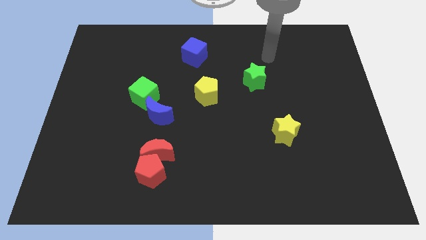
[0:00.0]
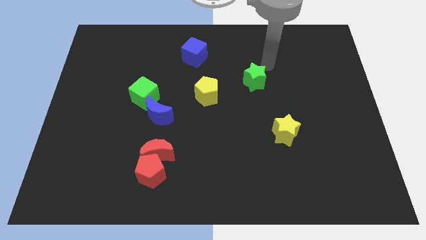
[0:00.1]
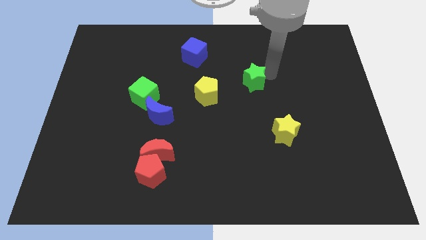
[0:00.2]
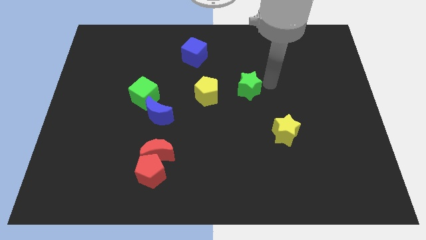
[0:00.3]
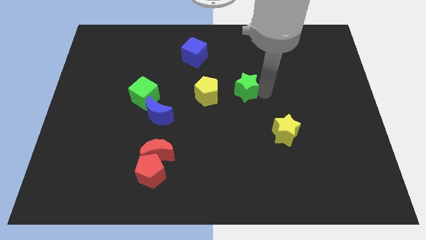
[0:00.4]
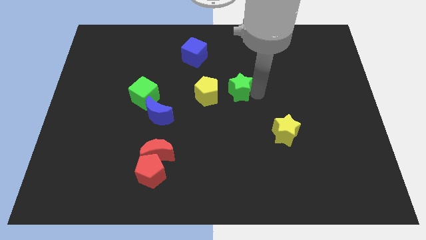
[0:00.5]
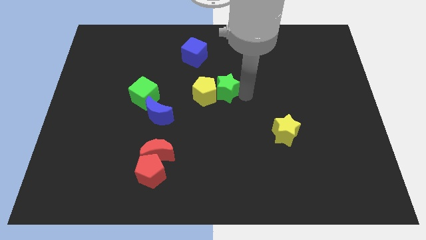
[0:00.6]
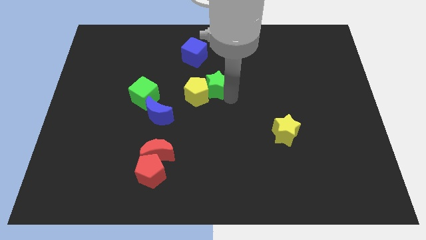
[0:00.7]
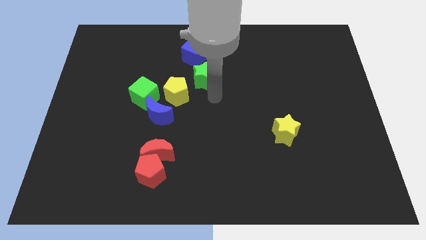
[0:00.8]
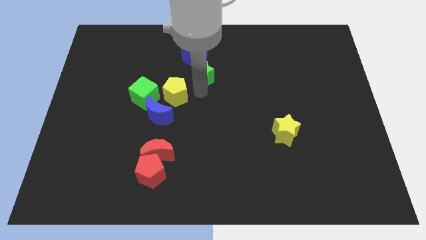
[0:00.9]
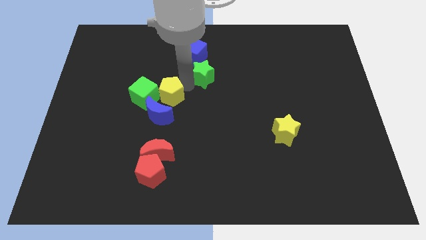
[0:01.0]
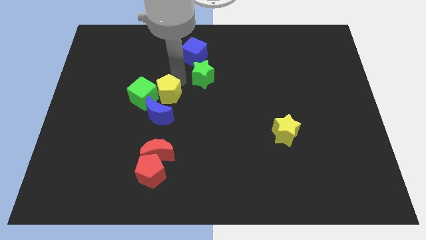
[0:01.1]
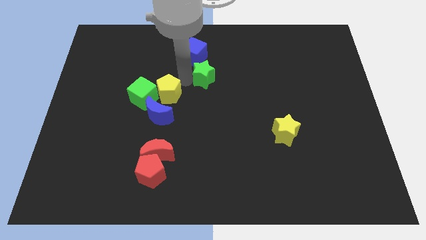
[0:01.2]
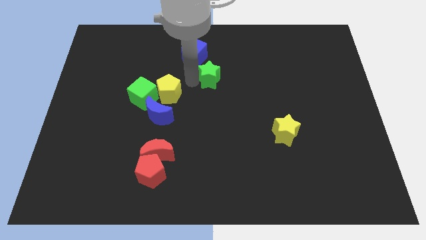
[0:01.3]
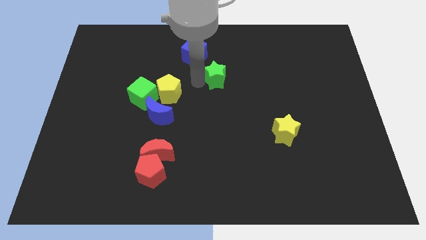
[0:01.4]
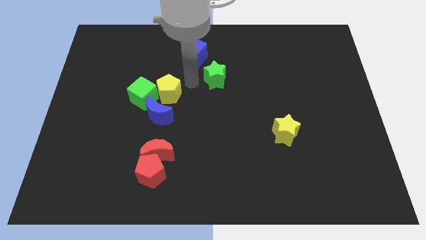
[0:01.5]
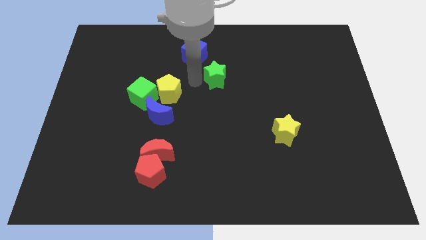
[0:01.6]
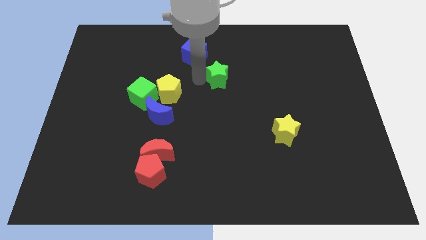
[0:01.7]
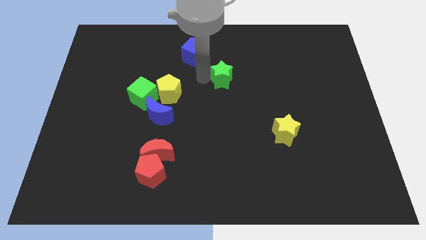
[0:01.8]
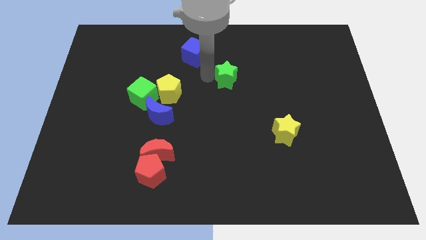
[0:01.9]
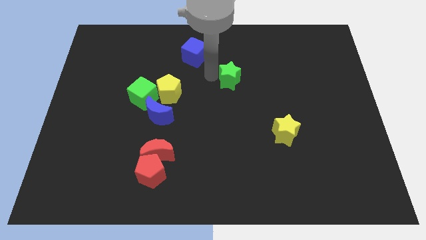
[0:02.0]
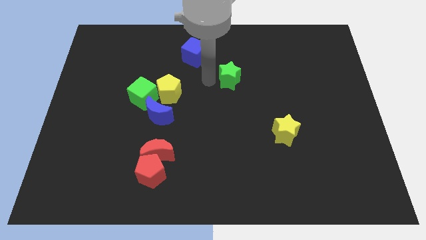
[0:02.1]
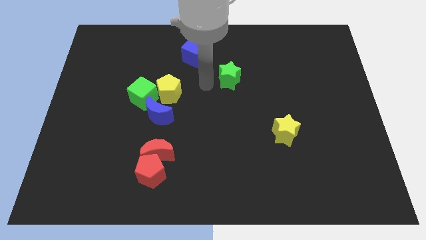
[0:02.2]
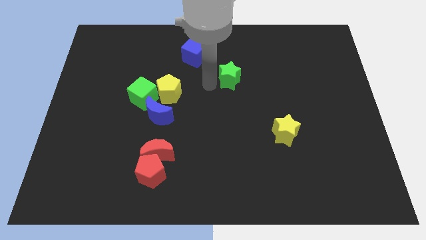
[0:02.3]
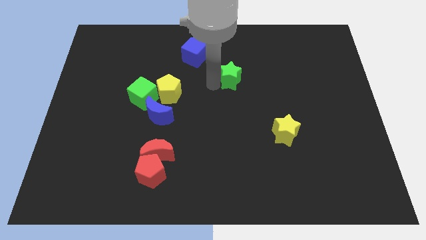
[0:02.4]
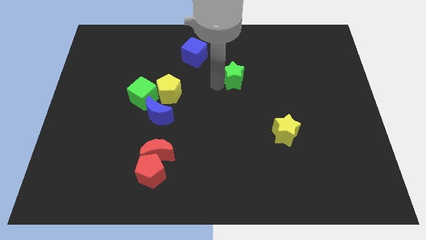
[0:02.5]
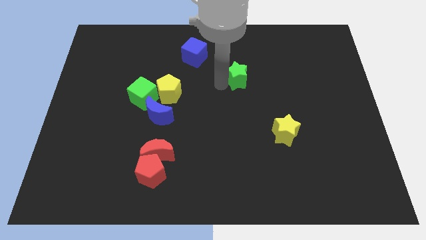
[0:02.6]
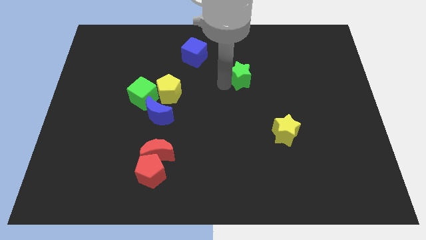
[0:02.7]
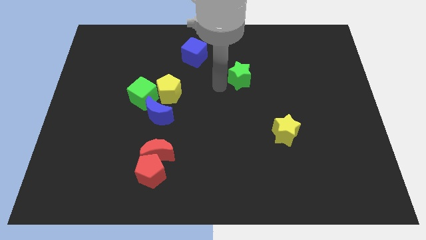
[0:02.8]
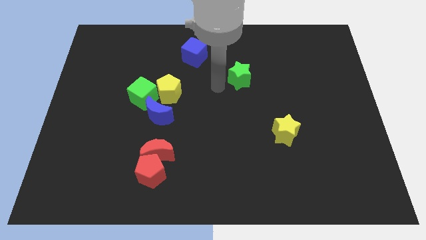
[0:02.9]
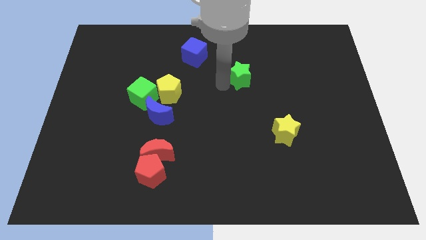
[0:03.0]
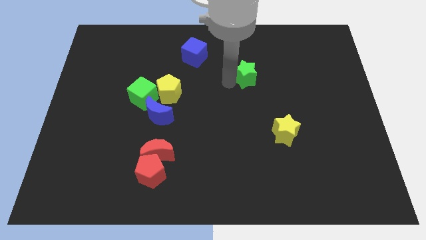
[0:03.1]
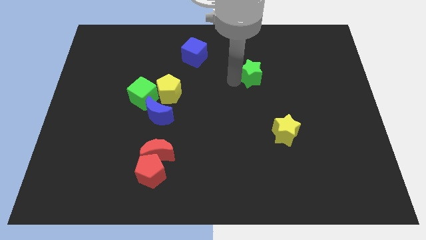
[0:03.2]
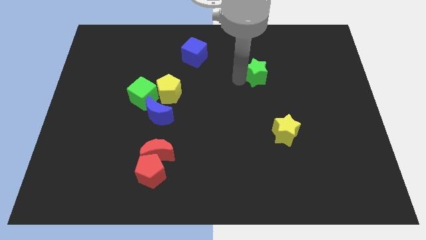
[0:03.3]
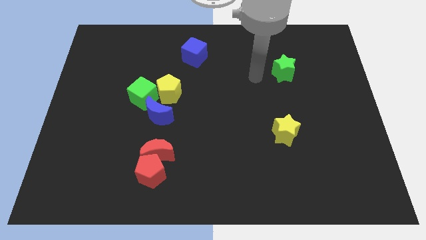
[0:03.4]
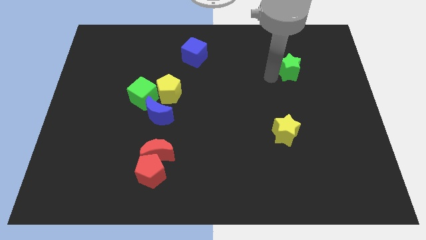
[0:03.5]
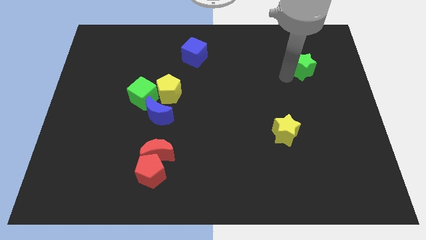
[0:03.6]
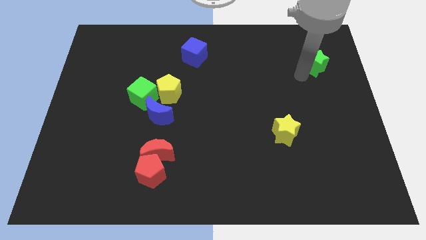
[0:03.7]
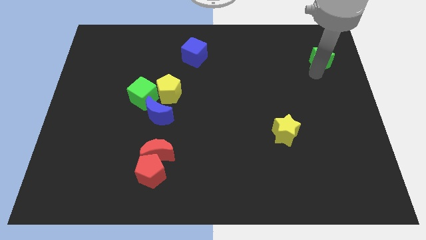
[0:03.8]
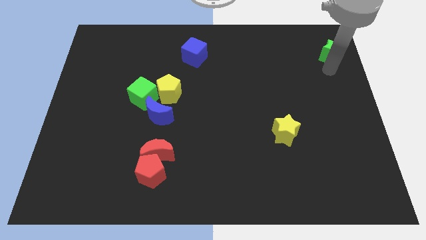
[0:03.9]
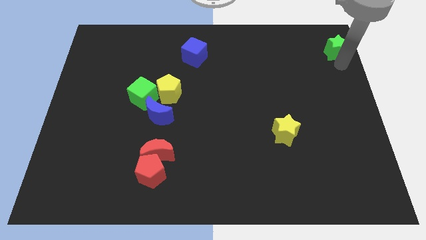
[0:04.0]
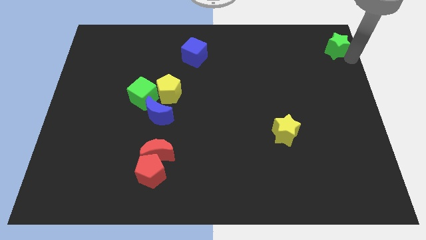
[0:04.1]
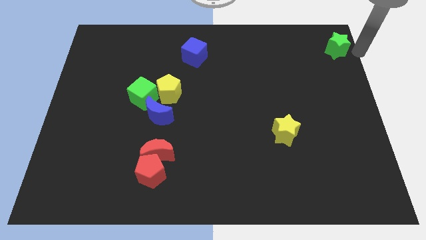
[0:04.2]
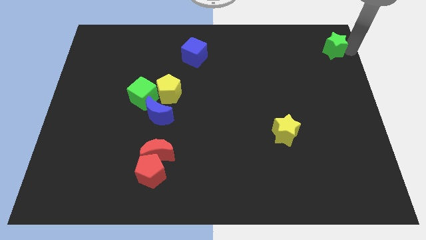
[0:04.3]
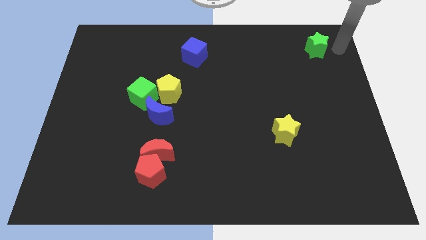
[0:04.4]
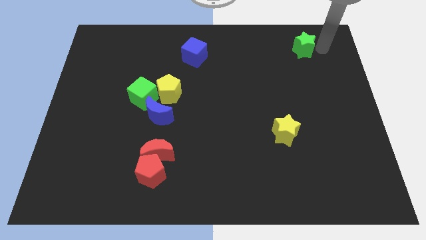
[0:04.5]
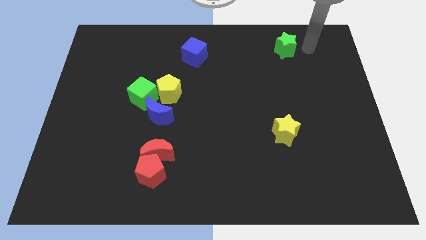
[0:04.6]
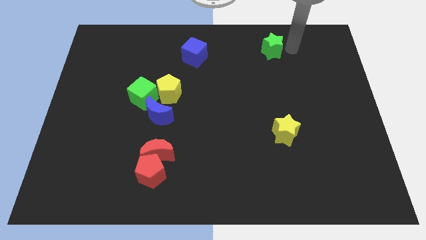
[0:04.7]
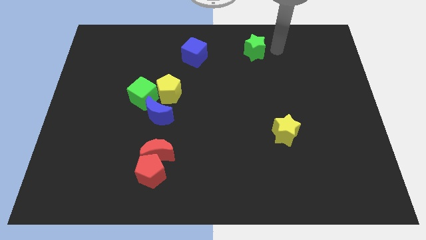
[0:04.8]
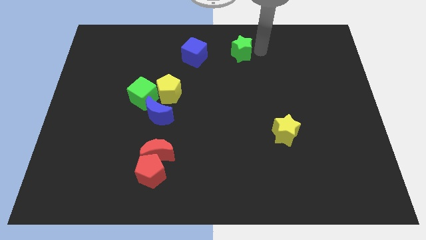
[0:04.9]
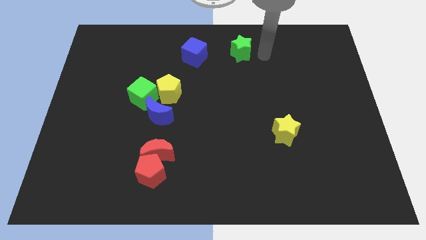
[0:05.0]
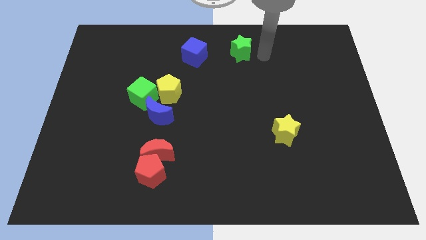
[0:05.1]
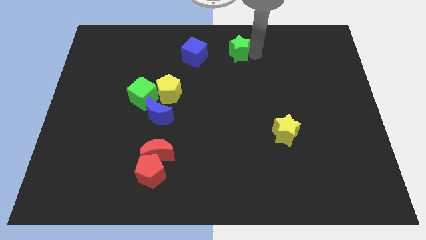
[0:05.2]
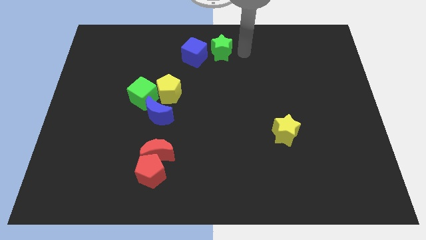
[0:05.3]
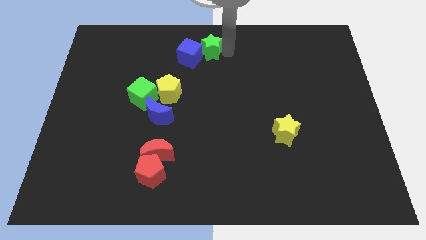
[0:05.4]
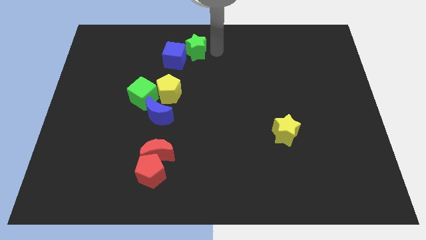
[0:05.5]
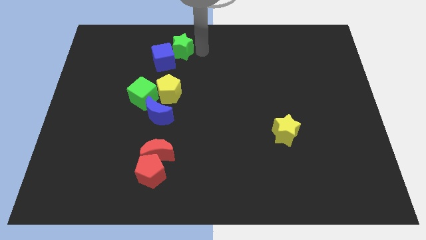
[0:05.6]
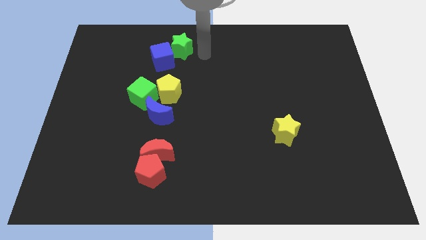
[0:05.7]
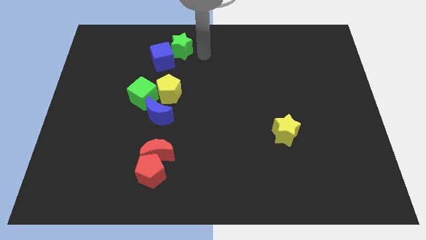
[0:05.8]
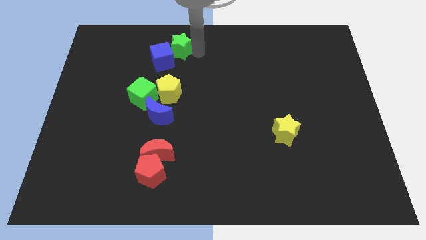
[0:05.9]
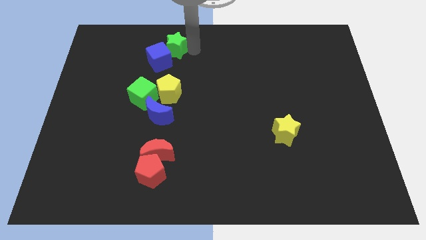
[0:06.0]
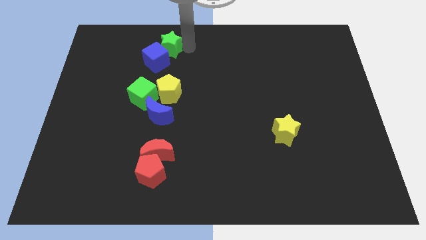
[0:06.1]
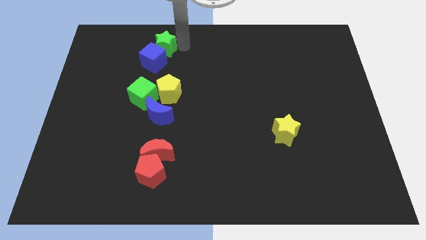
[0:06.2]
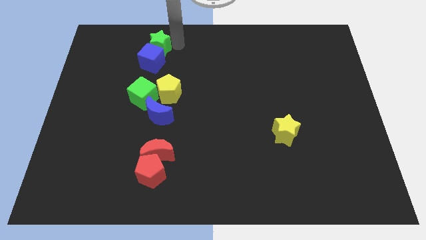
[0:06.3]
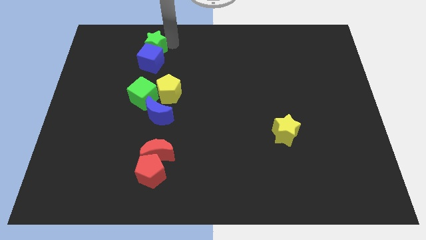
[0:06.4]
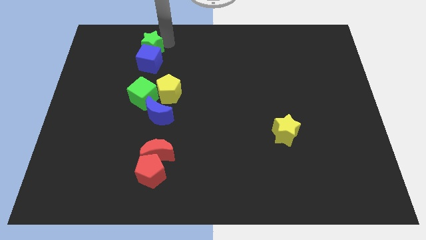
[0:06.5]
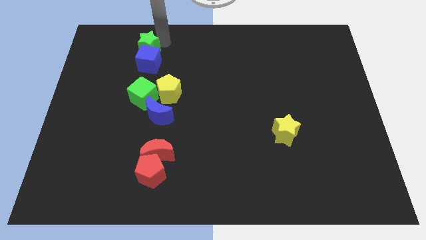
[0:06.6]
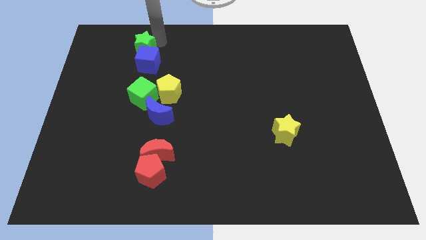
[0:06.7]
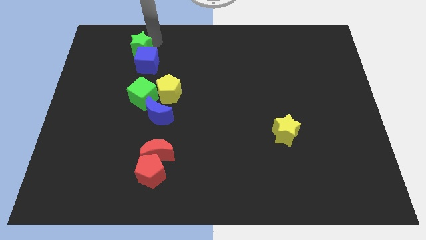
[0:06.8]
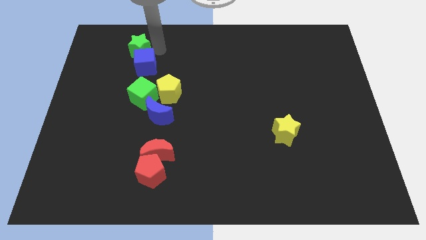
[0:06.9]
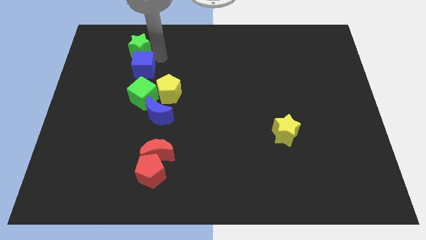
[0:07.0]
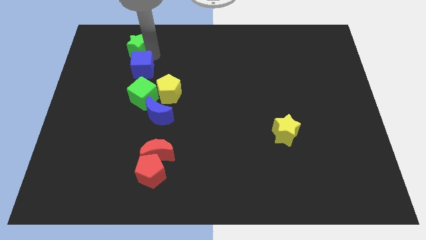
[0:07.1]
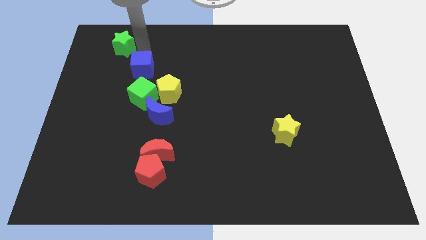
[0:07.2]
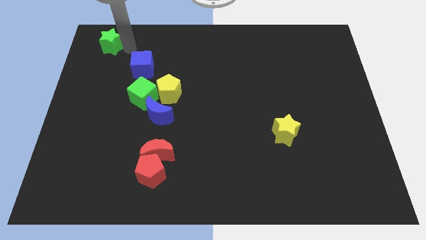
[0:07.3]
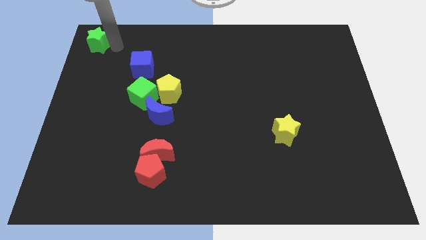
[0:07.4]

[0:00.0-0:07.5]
move the green star to the top left of the board
